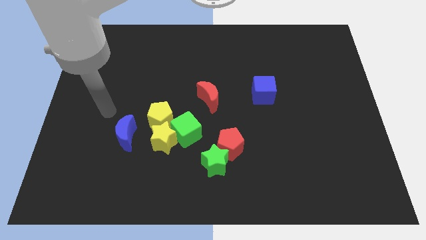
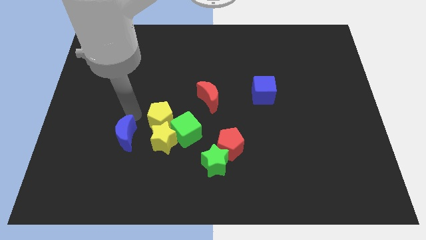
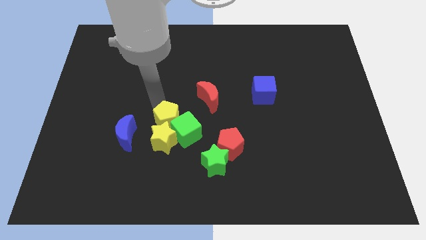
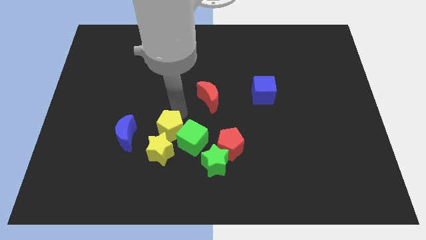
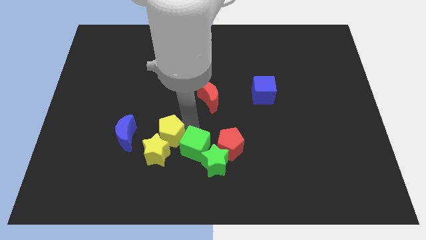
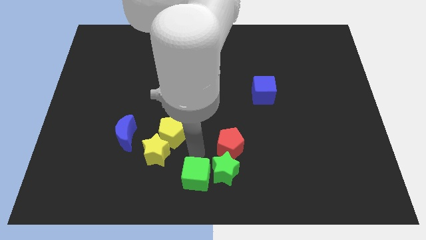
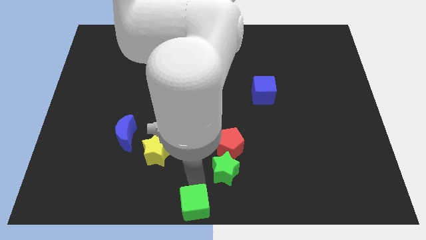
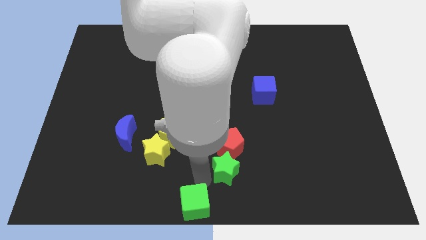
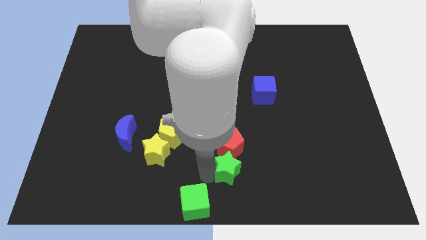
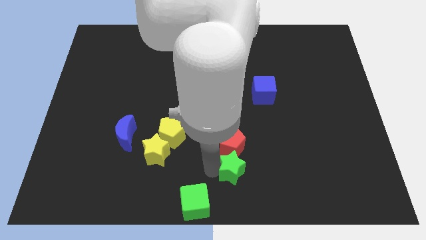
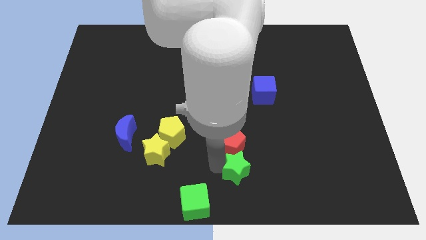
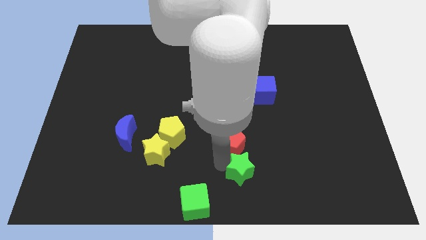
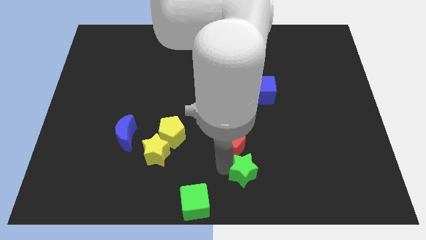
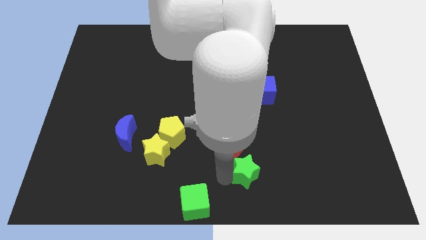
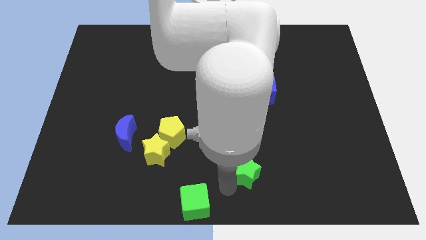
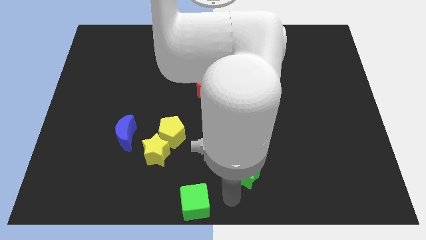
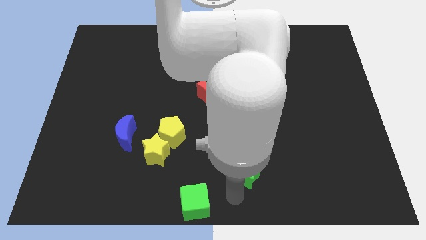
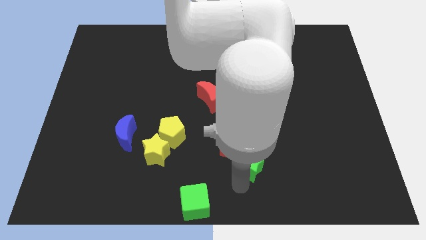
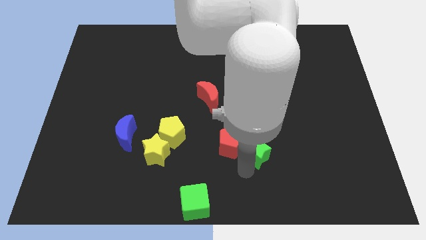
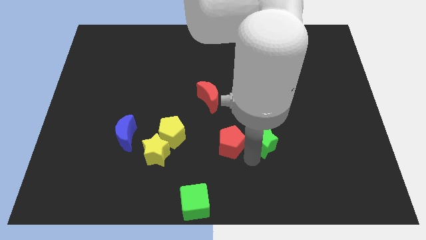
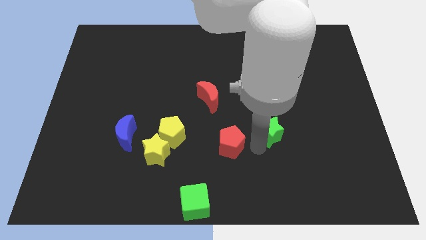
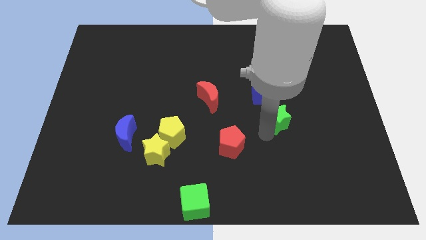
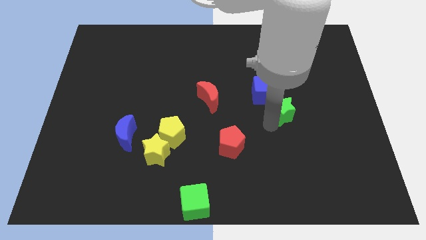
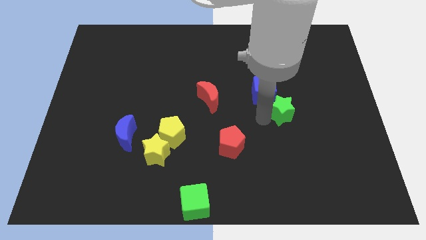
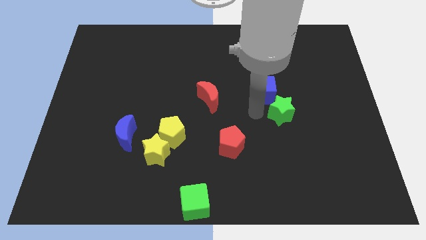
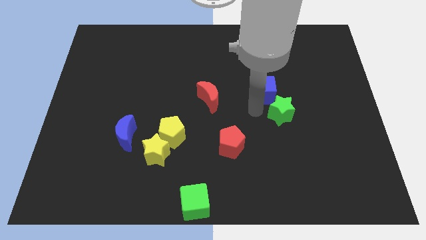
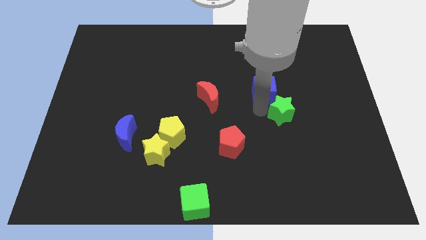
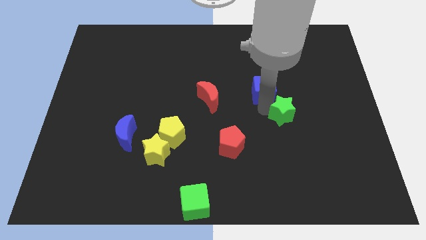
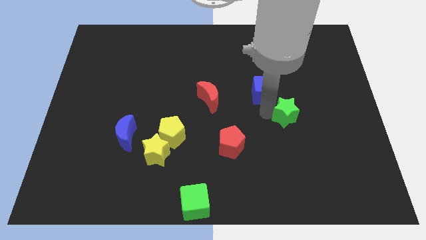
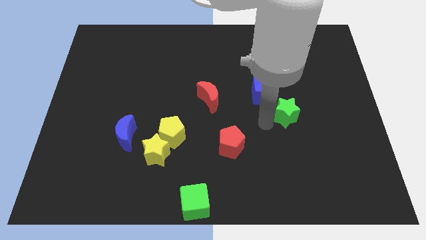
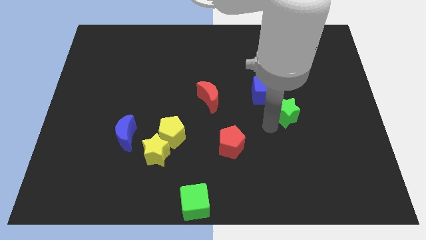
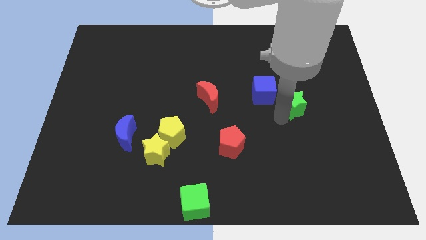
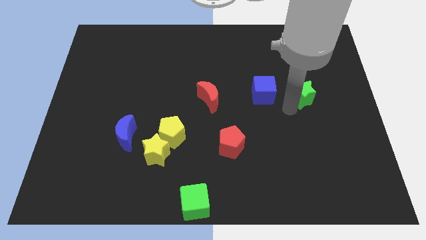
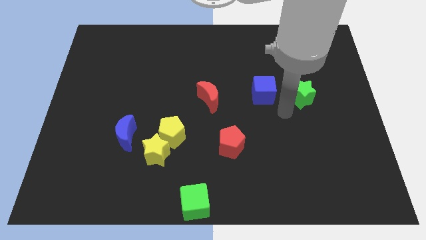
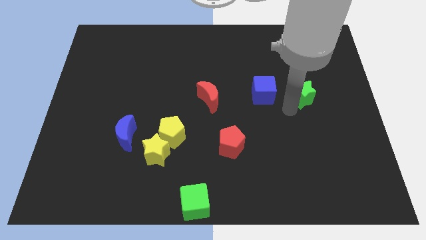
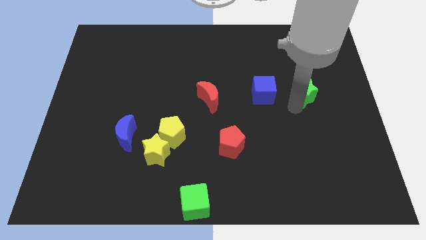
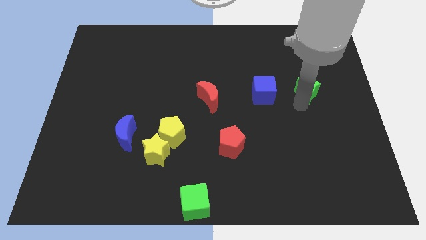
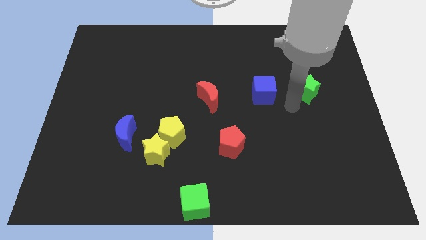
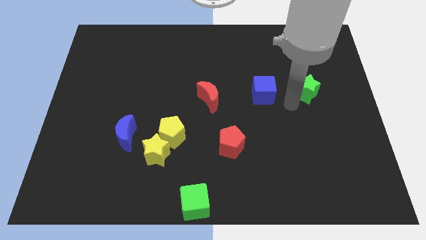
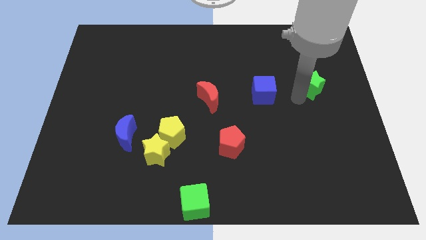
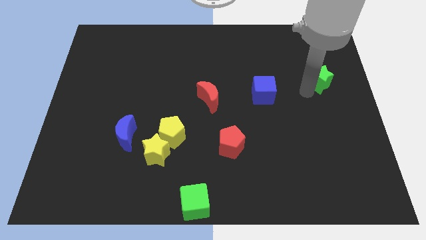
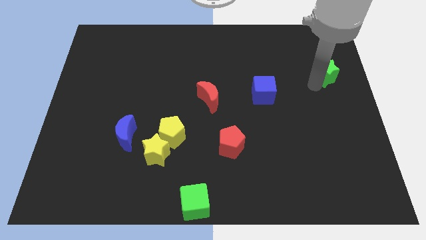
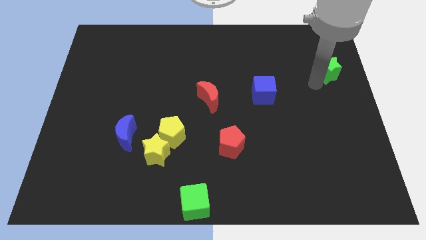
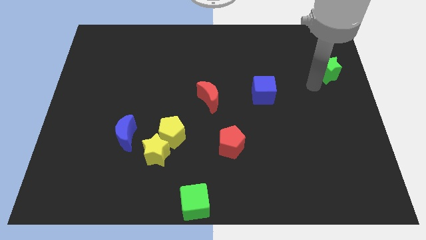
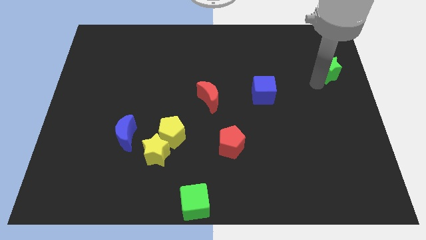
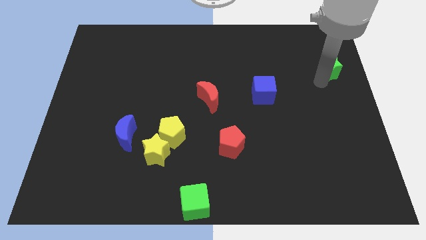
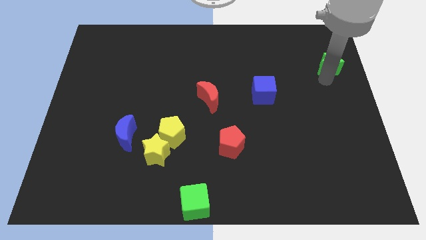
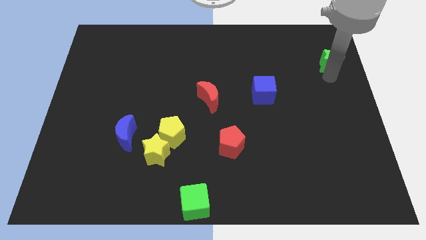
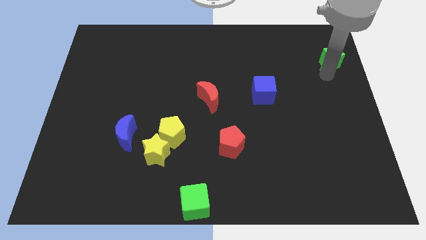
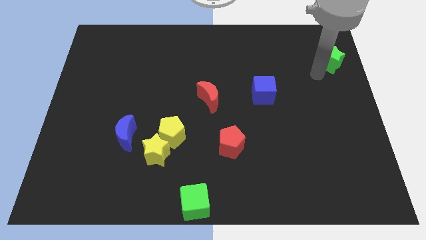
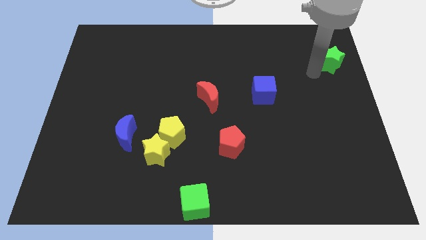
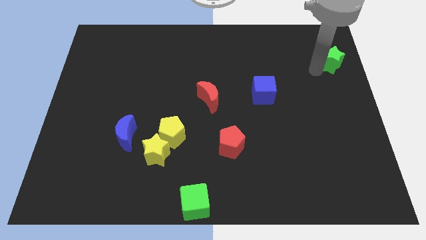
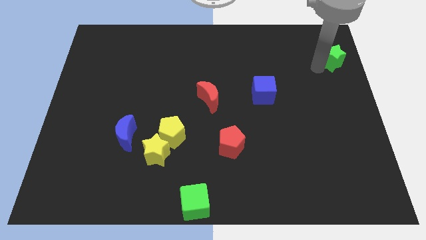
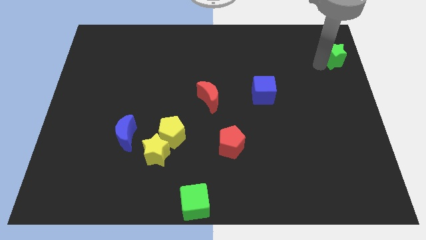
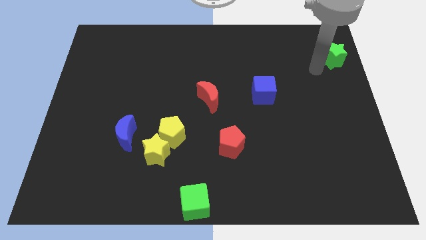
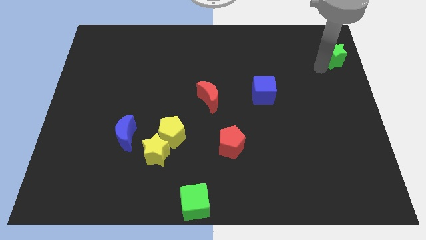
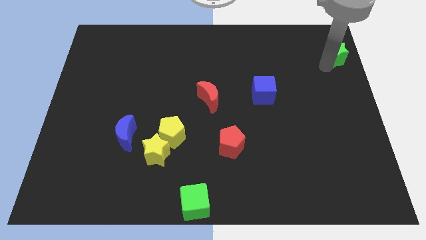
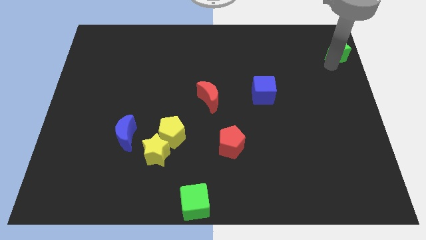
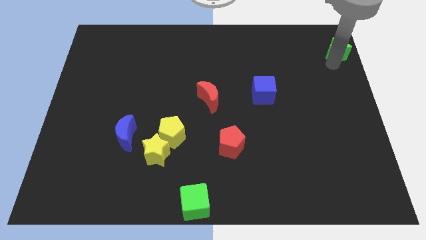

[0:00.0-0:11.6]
slide the green star to the top right corner

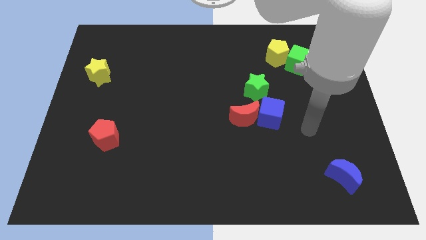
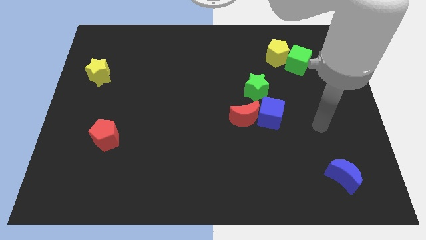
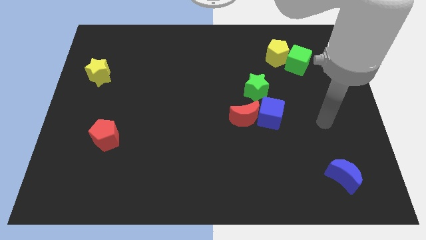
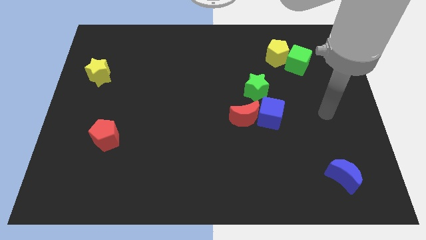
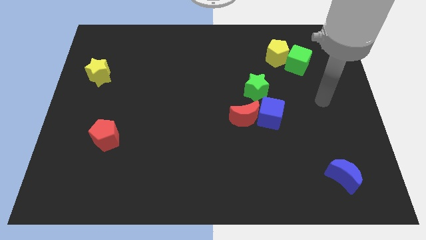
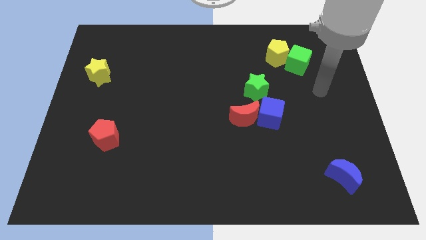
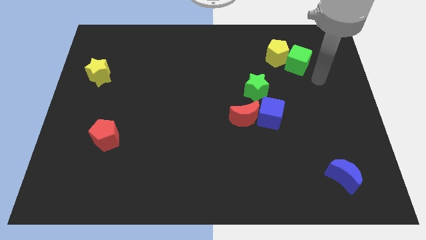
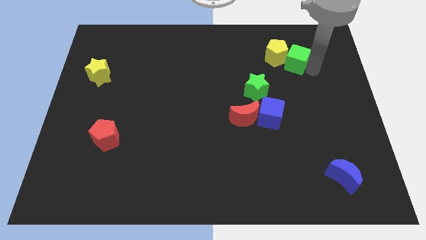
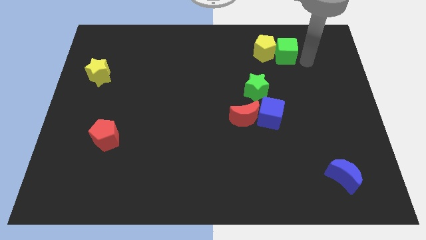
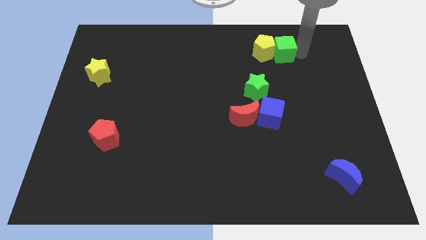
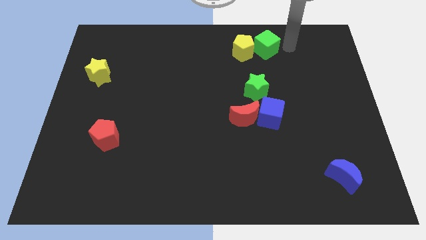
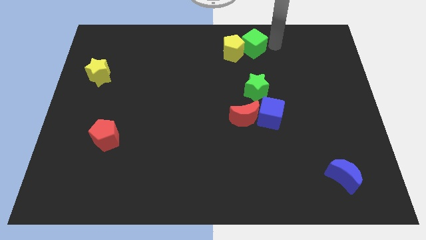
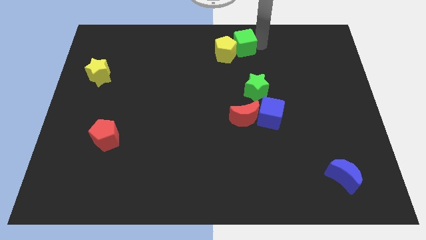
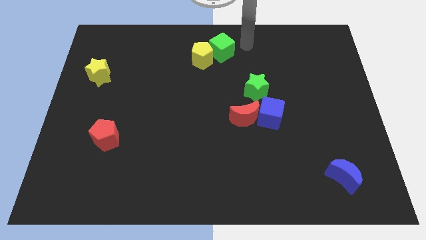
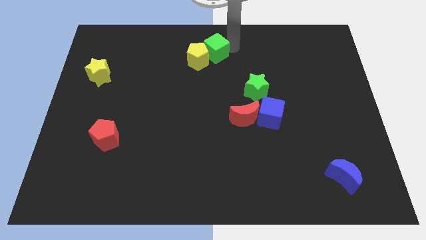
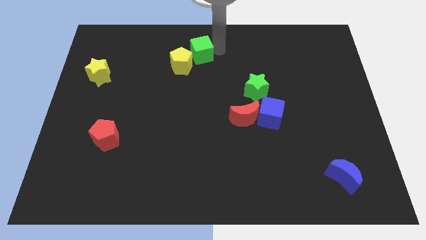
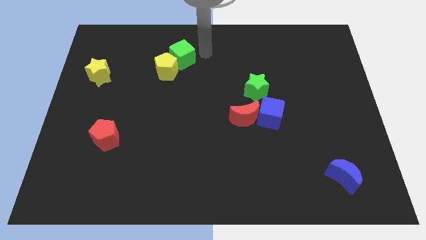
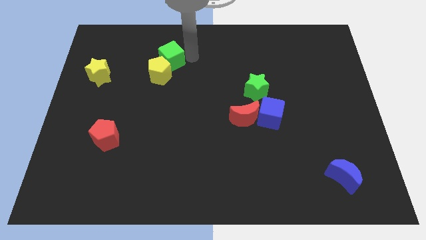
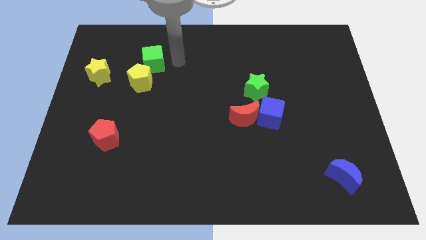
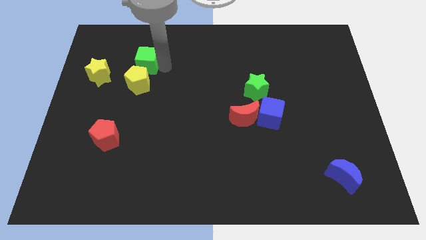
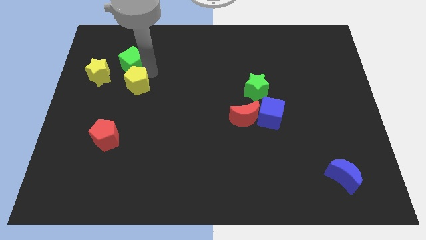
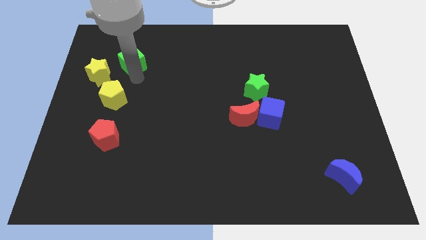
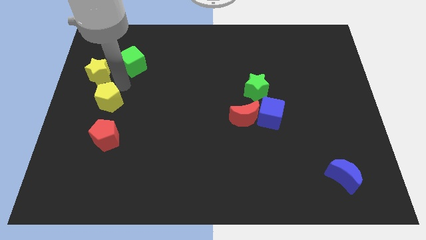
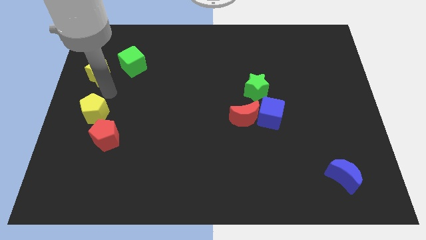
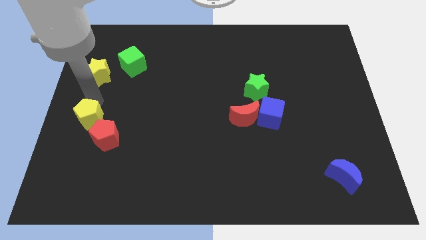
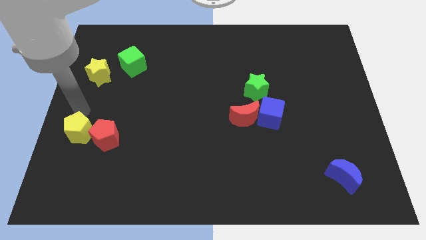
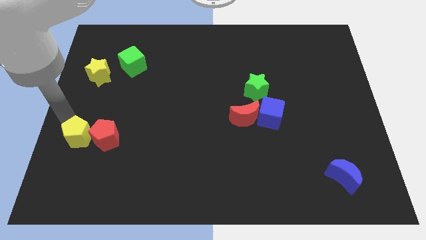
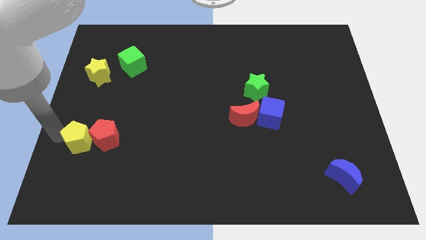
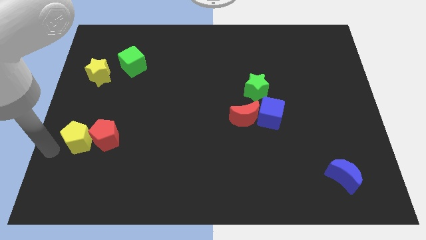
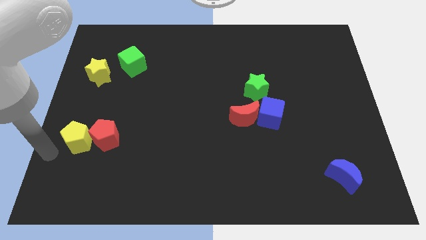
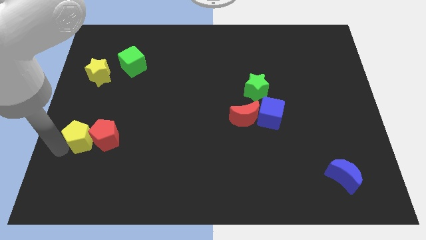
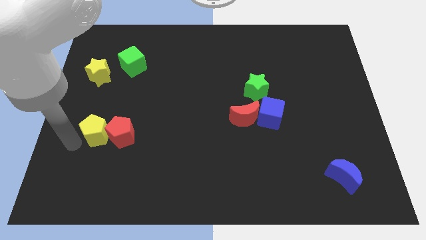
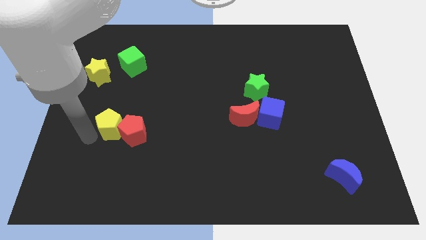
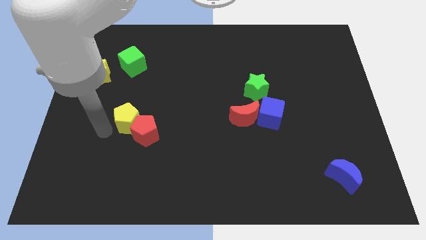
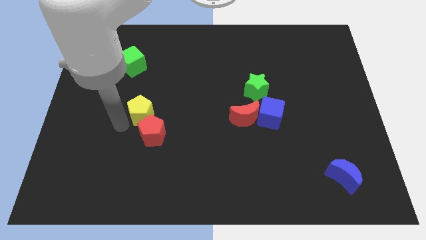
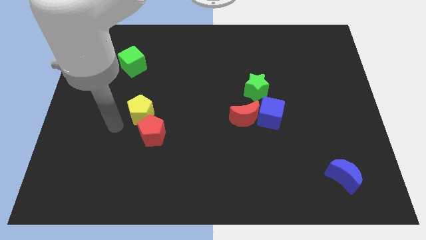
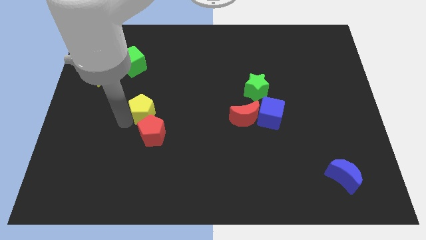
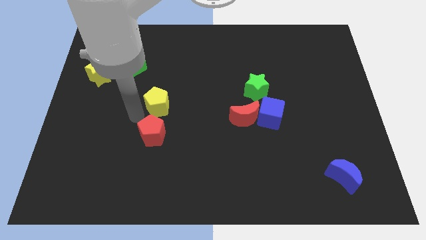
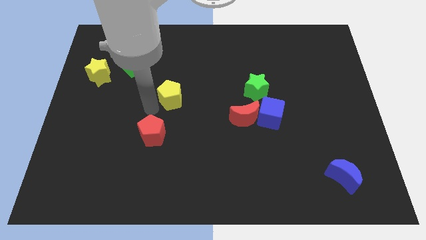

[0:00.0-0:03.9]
put the yellow pentagon to the middle of the board
